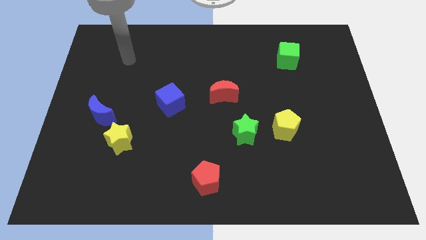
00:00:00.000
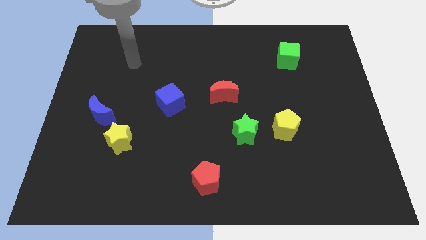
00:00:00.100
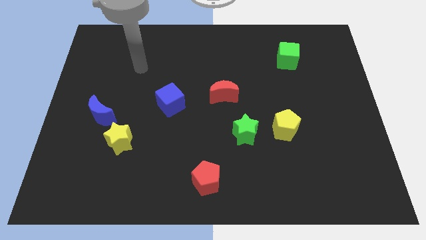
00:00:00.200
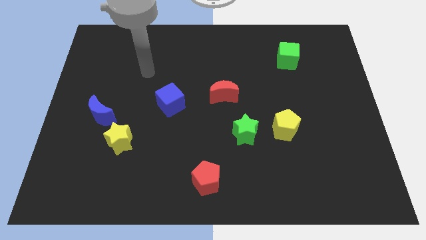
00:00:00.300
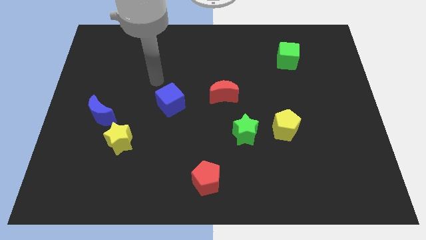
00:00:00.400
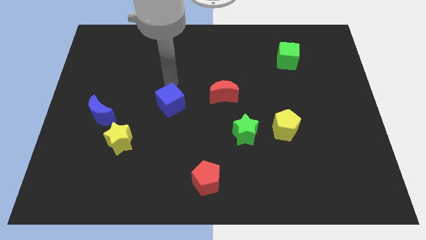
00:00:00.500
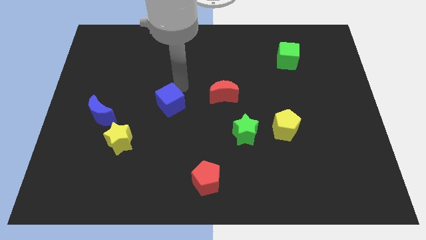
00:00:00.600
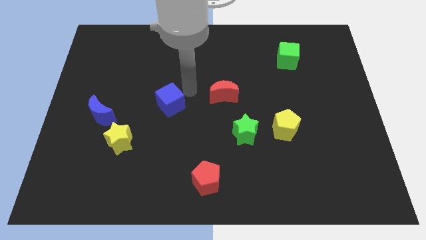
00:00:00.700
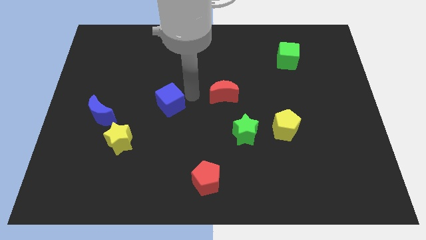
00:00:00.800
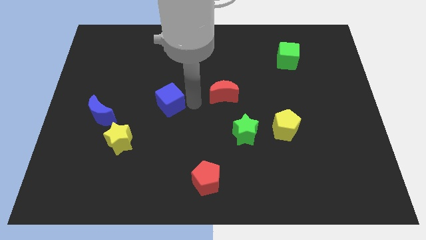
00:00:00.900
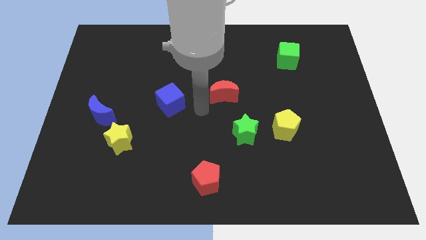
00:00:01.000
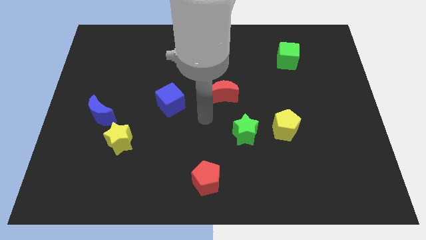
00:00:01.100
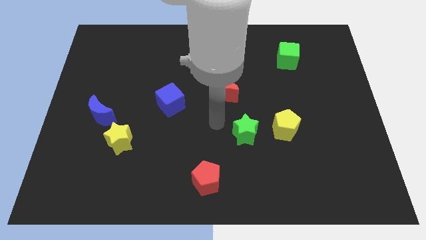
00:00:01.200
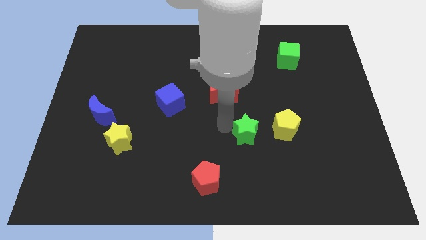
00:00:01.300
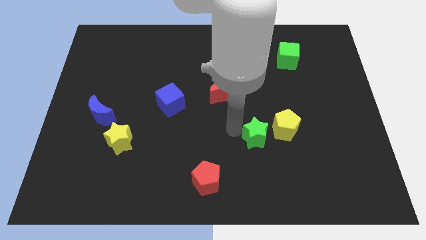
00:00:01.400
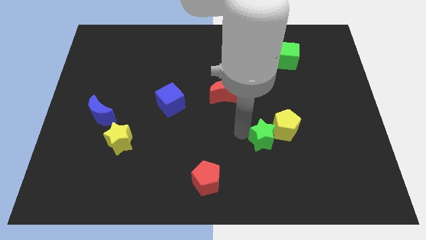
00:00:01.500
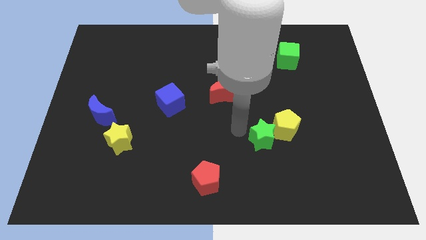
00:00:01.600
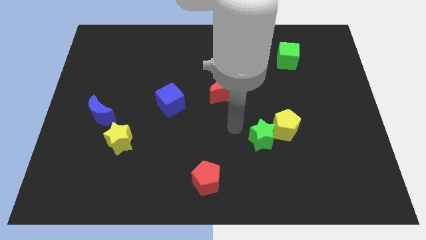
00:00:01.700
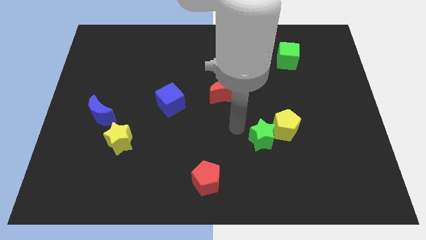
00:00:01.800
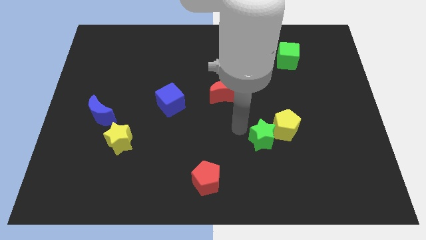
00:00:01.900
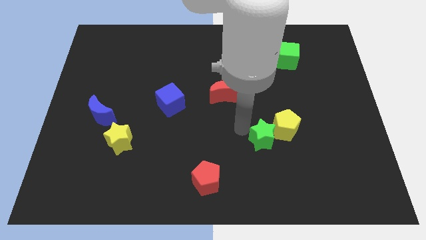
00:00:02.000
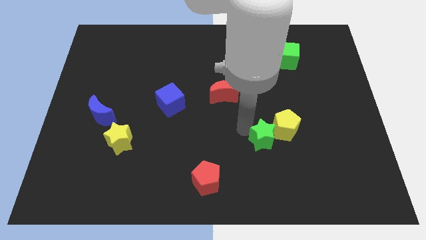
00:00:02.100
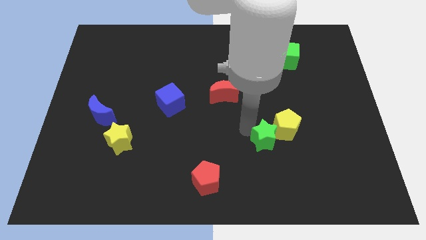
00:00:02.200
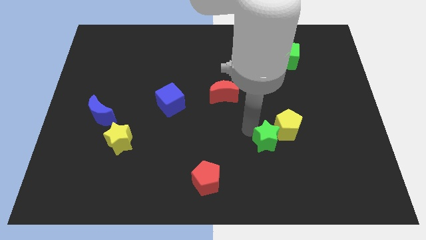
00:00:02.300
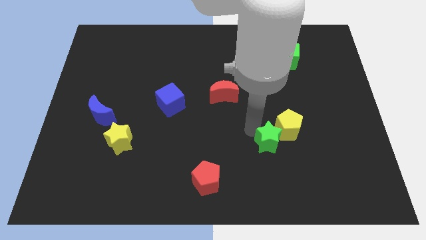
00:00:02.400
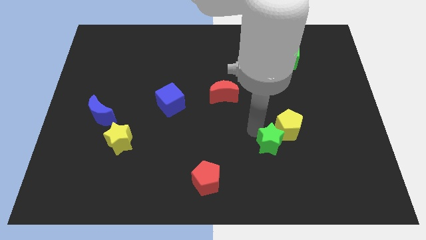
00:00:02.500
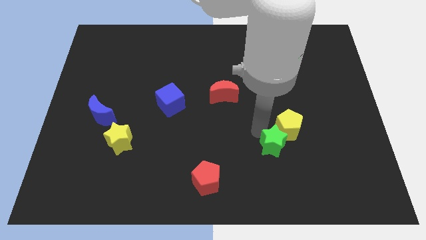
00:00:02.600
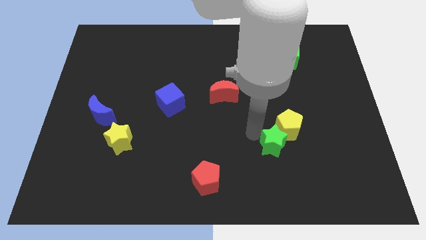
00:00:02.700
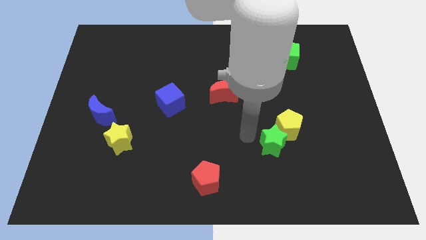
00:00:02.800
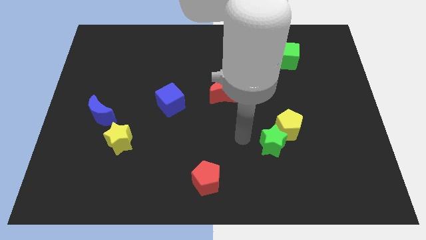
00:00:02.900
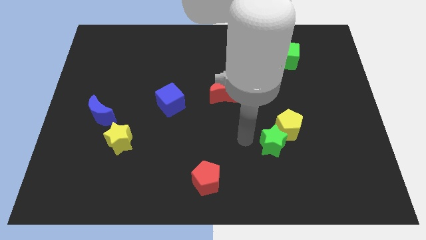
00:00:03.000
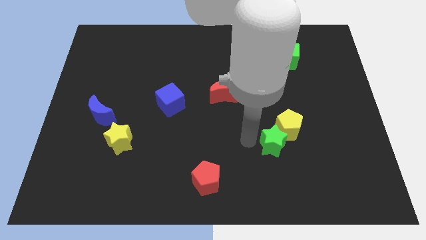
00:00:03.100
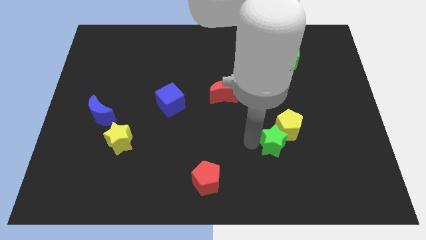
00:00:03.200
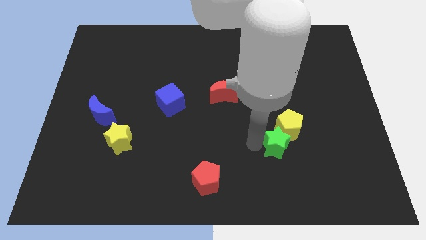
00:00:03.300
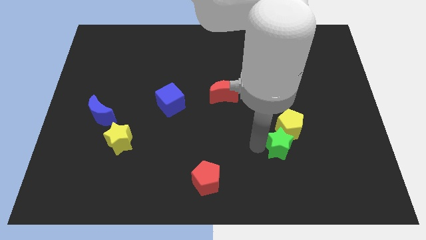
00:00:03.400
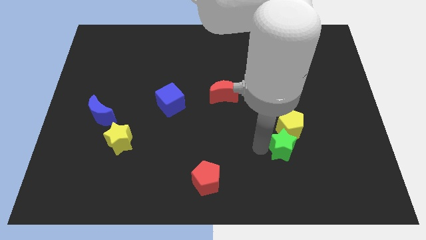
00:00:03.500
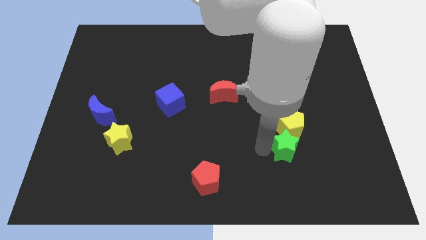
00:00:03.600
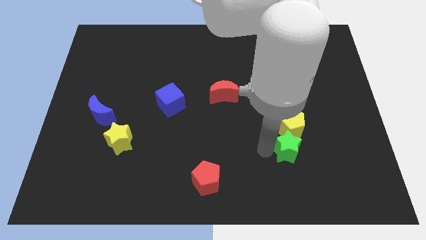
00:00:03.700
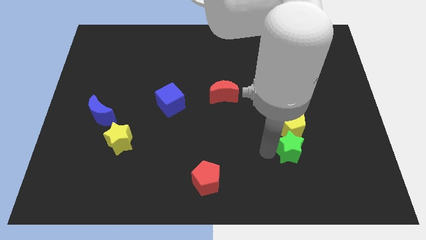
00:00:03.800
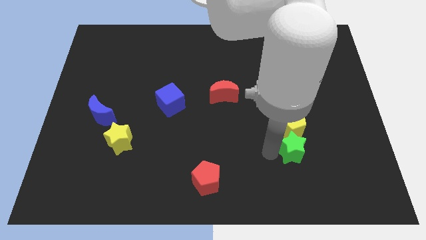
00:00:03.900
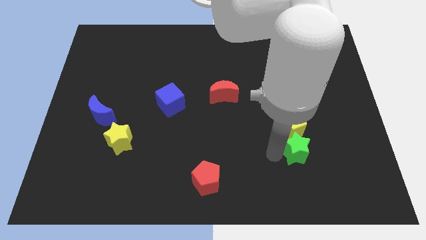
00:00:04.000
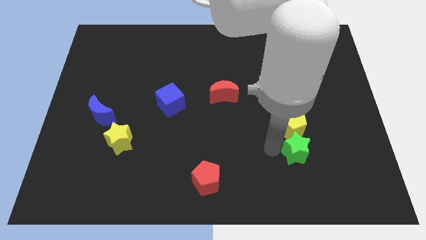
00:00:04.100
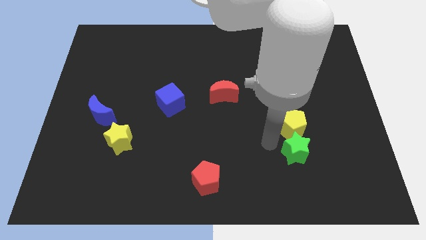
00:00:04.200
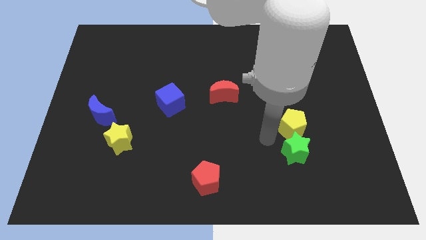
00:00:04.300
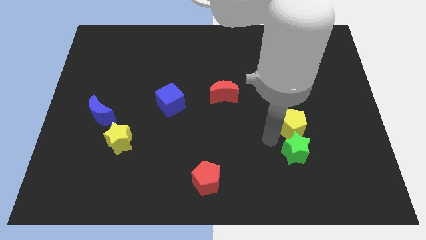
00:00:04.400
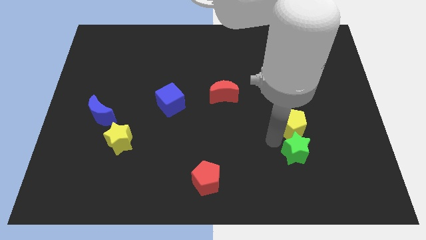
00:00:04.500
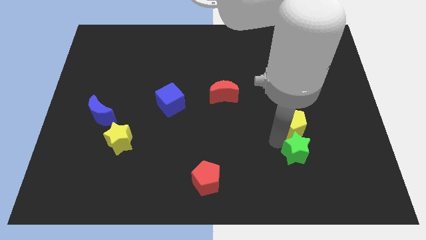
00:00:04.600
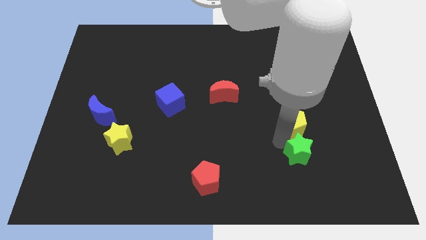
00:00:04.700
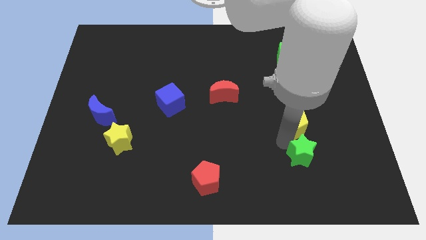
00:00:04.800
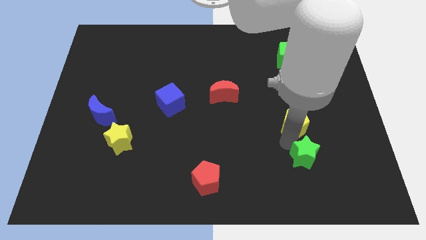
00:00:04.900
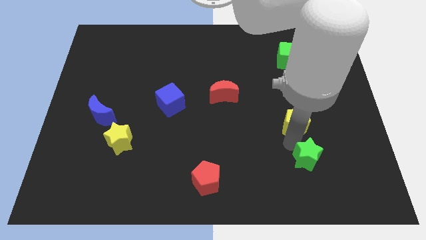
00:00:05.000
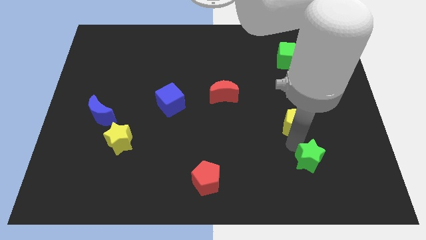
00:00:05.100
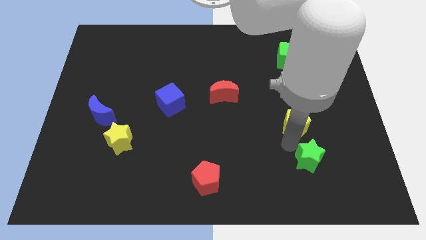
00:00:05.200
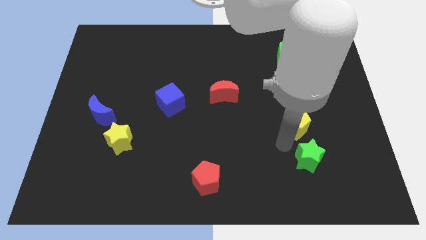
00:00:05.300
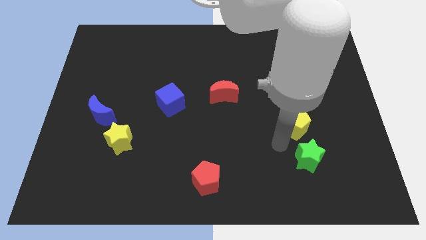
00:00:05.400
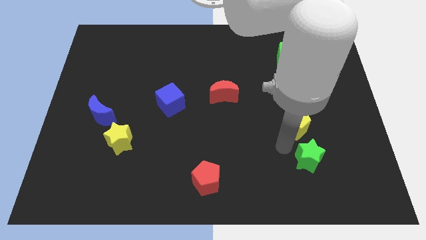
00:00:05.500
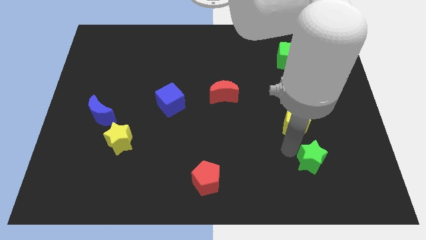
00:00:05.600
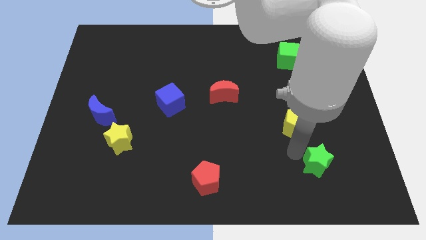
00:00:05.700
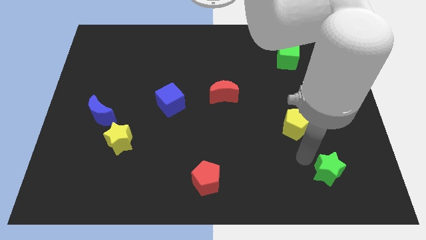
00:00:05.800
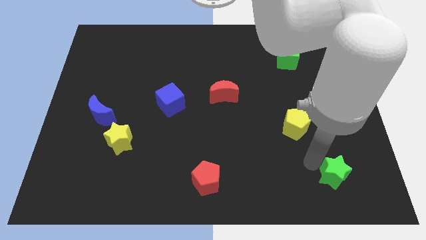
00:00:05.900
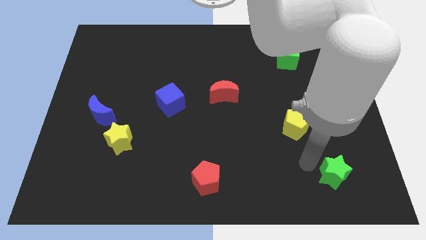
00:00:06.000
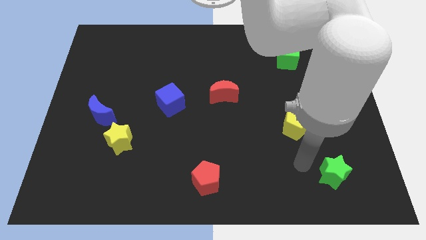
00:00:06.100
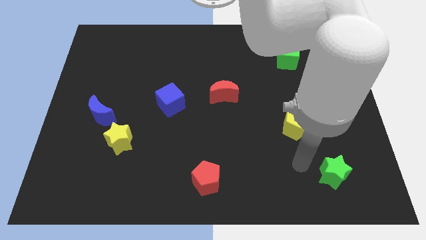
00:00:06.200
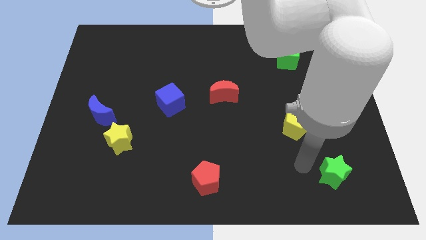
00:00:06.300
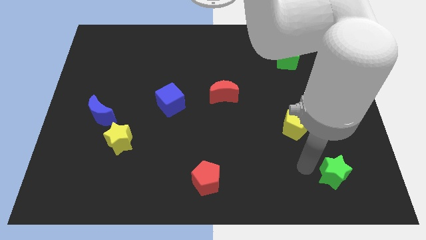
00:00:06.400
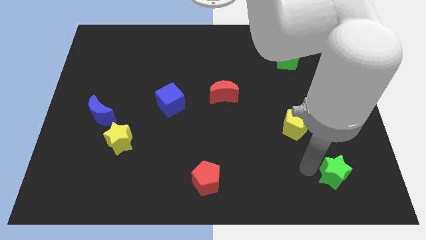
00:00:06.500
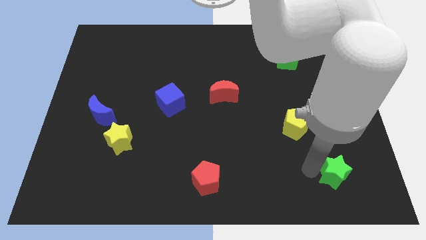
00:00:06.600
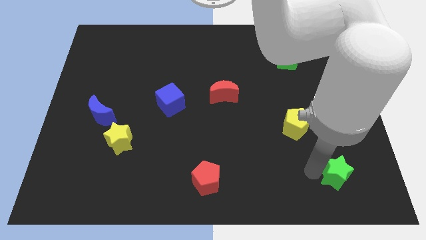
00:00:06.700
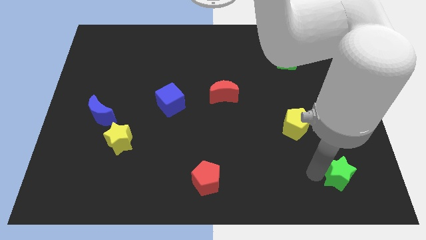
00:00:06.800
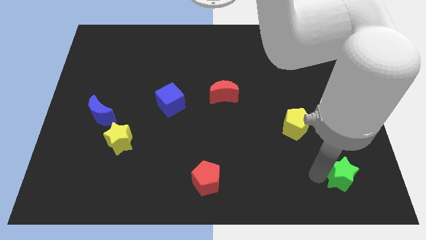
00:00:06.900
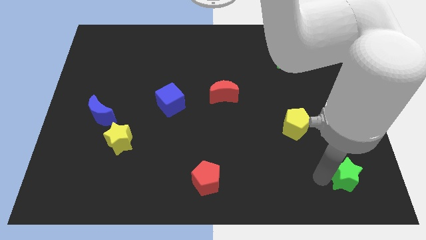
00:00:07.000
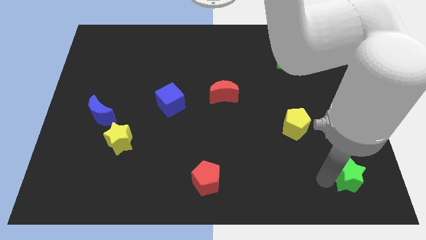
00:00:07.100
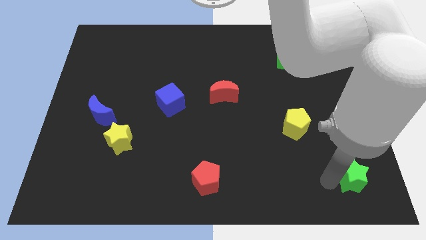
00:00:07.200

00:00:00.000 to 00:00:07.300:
put the green star to the bottom right of the board
